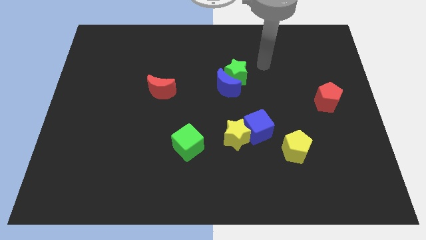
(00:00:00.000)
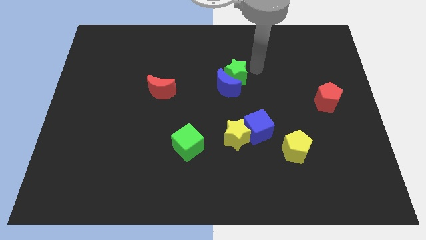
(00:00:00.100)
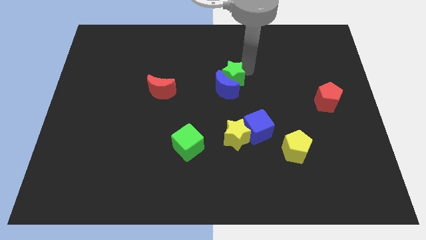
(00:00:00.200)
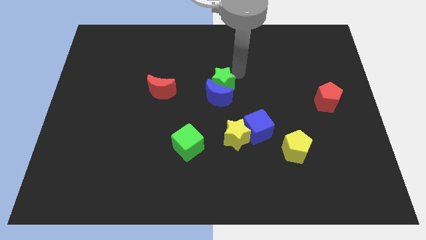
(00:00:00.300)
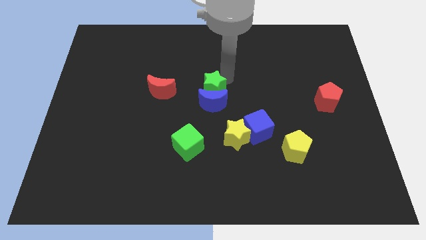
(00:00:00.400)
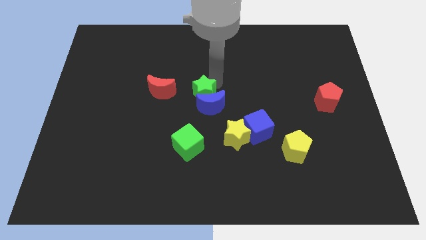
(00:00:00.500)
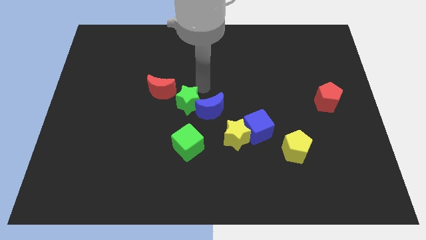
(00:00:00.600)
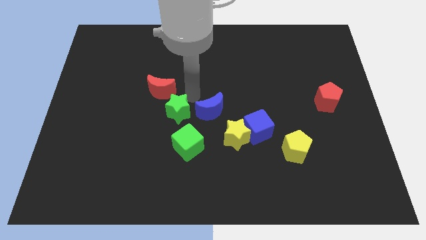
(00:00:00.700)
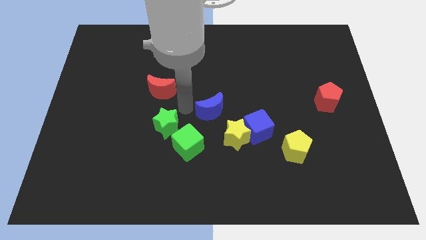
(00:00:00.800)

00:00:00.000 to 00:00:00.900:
move the blue moon away from the green star

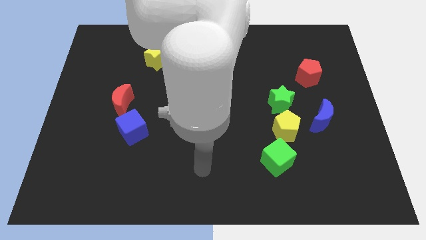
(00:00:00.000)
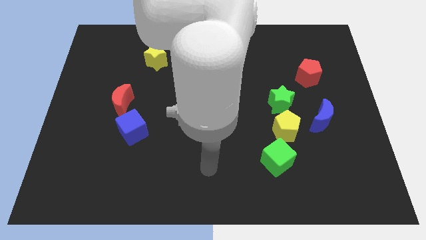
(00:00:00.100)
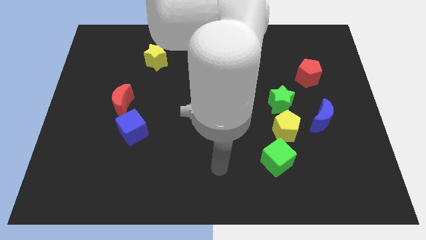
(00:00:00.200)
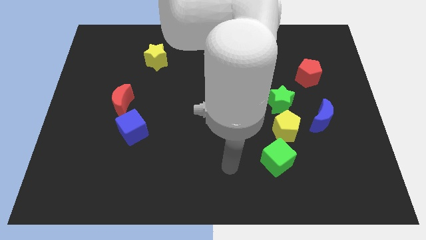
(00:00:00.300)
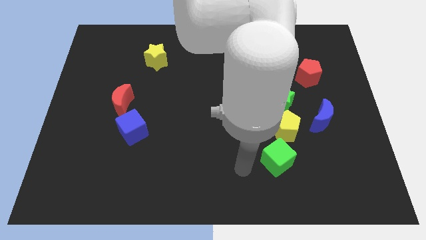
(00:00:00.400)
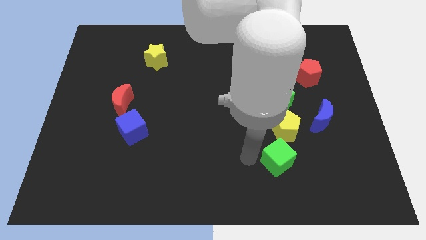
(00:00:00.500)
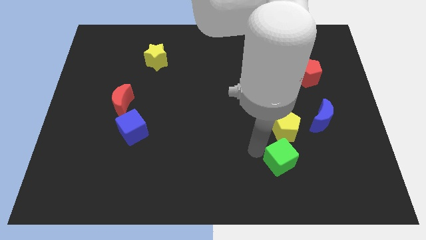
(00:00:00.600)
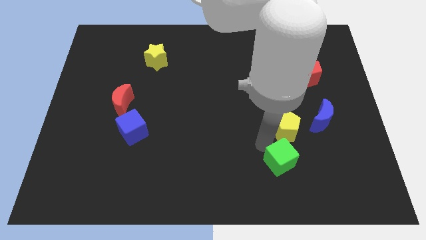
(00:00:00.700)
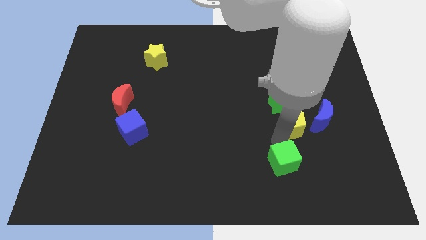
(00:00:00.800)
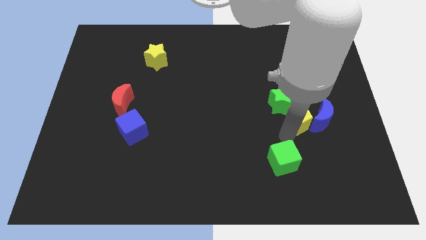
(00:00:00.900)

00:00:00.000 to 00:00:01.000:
pull the green cube apart from the yellow pentagon

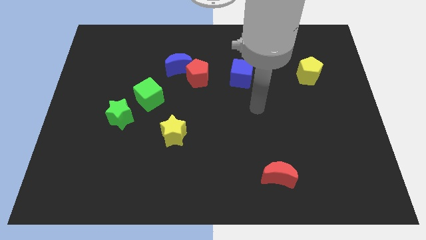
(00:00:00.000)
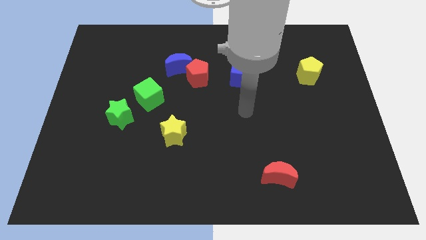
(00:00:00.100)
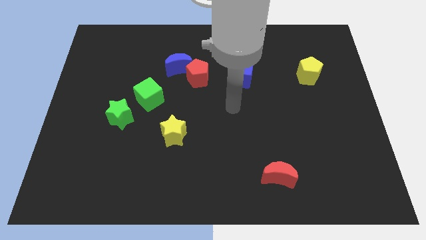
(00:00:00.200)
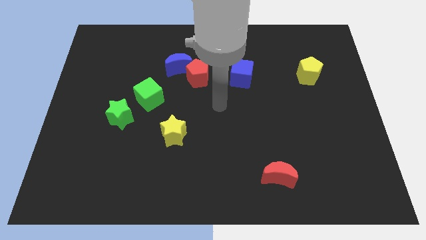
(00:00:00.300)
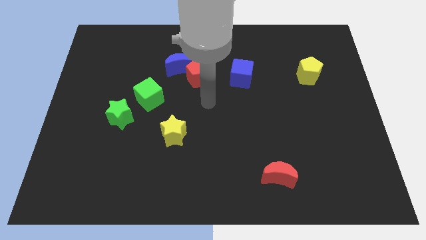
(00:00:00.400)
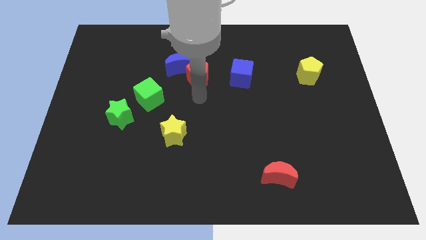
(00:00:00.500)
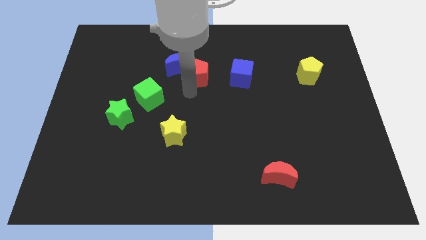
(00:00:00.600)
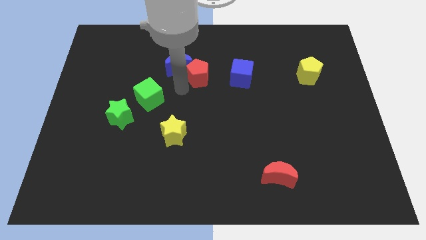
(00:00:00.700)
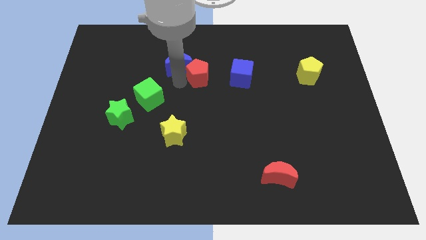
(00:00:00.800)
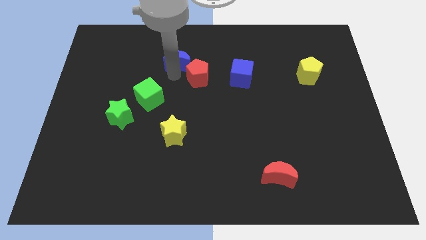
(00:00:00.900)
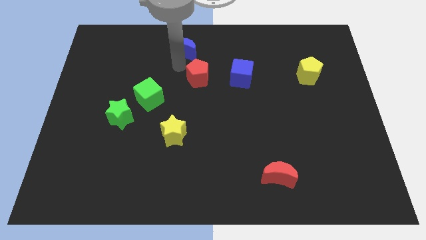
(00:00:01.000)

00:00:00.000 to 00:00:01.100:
move the red pentagon away from the blue moon

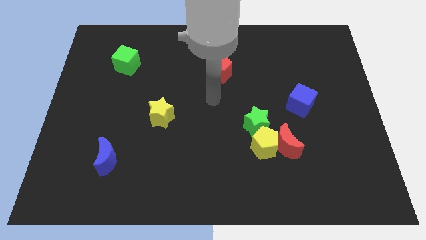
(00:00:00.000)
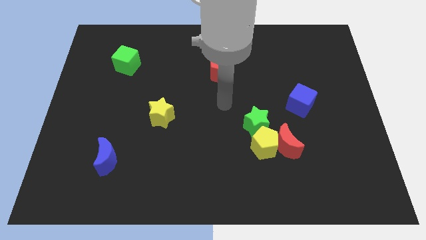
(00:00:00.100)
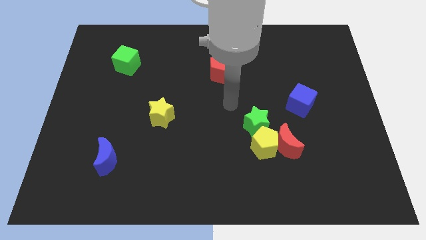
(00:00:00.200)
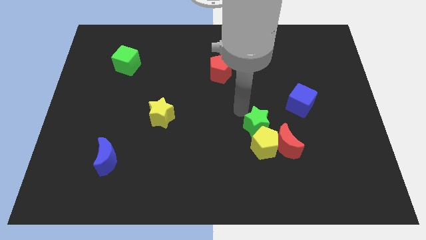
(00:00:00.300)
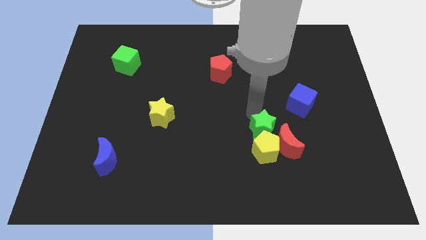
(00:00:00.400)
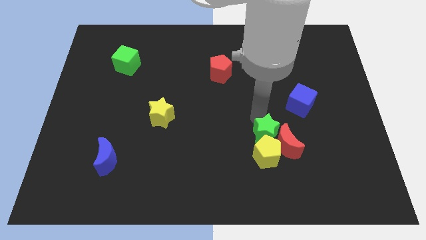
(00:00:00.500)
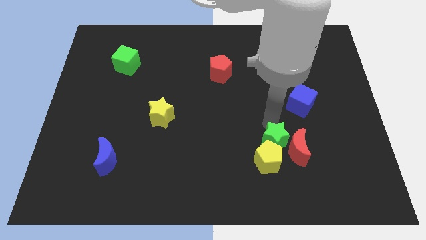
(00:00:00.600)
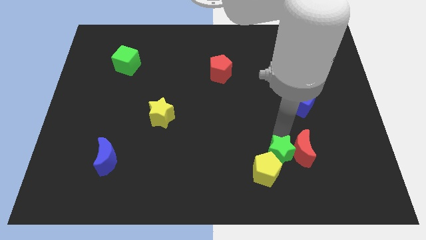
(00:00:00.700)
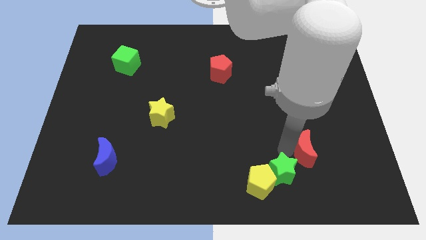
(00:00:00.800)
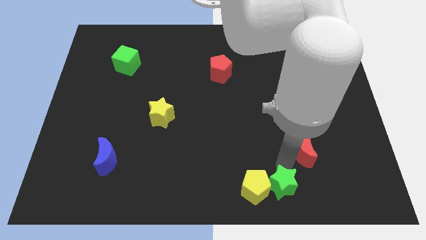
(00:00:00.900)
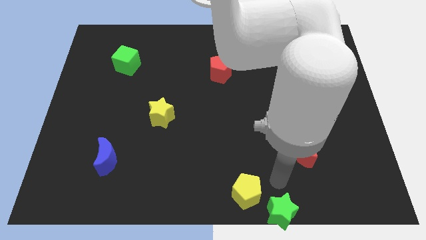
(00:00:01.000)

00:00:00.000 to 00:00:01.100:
pull the yellow pentagon apart from the red moon and green star

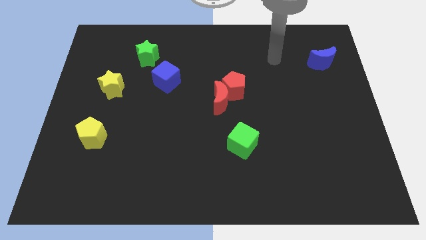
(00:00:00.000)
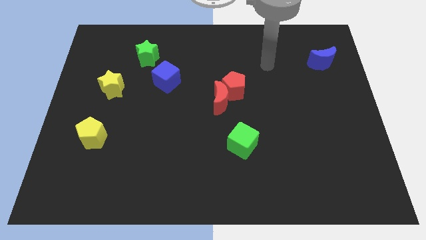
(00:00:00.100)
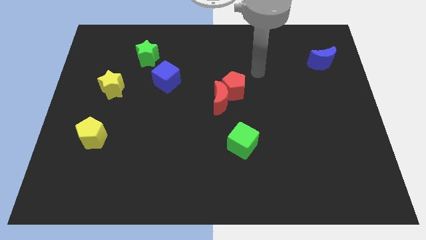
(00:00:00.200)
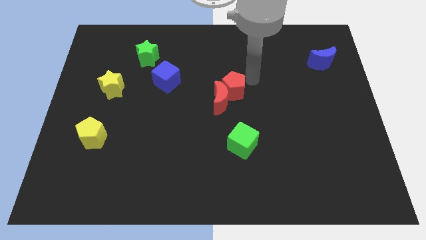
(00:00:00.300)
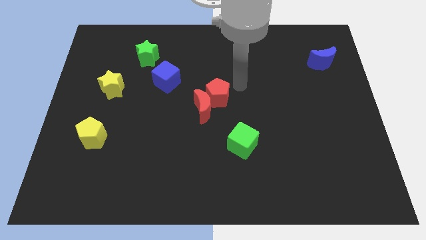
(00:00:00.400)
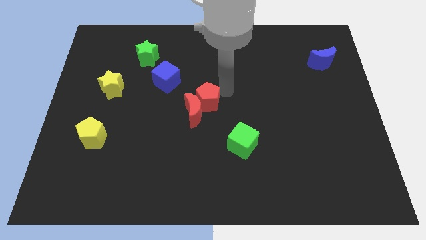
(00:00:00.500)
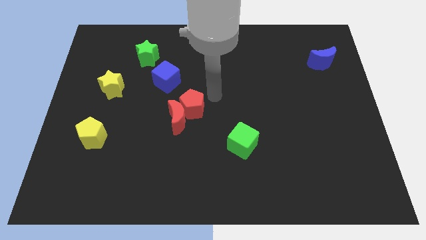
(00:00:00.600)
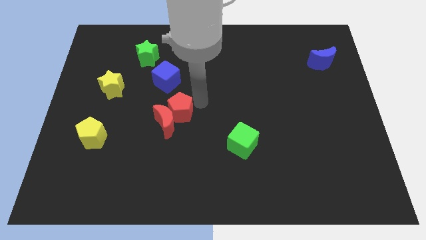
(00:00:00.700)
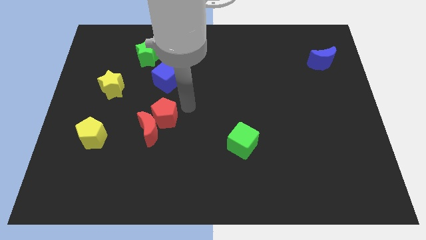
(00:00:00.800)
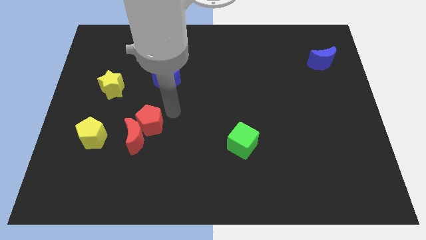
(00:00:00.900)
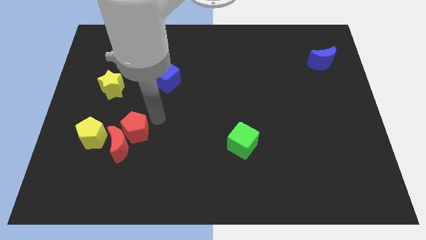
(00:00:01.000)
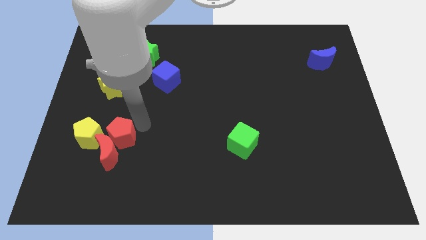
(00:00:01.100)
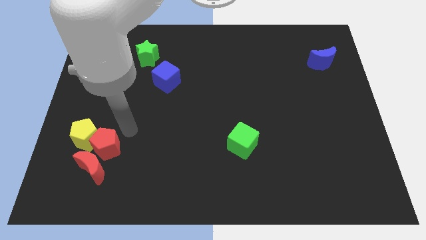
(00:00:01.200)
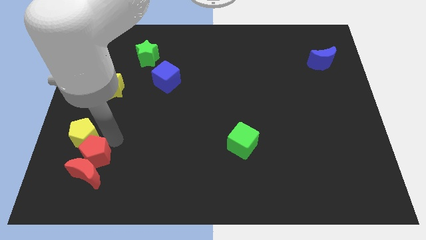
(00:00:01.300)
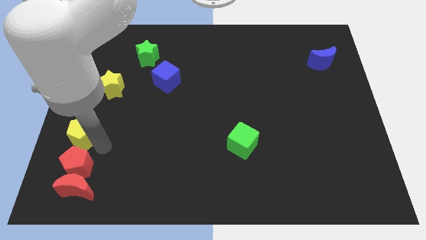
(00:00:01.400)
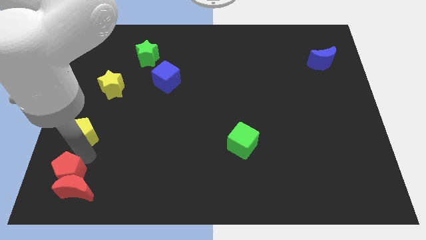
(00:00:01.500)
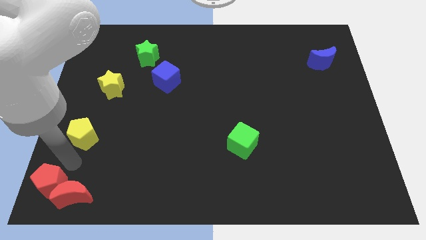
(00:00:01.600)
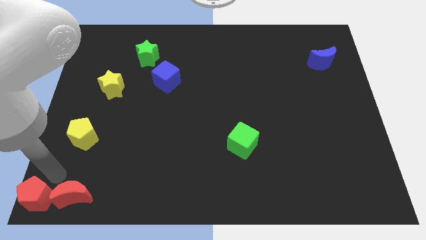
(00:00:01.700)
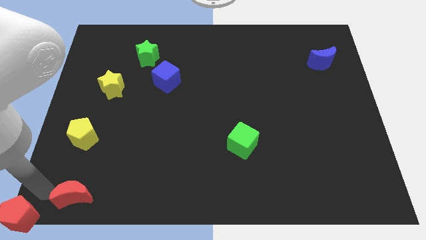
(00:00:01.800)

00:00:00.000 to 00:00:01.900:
pull the red moon apart from the red pentagon

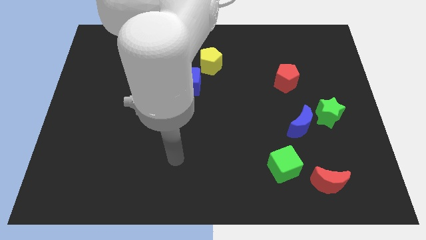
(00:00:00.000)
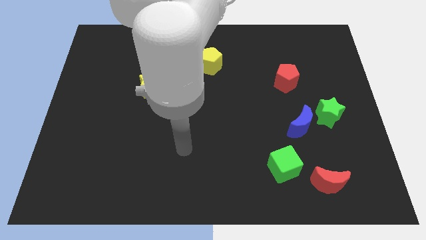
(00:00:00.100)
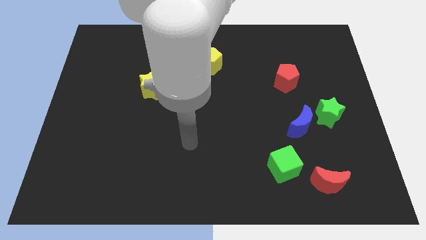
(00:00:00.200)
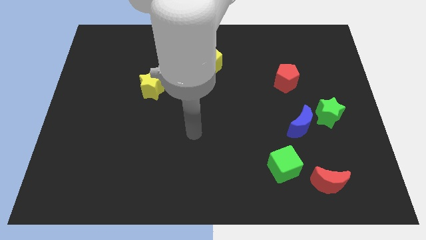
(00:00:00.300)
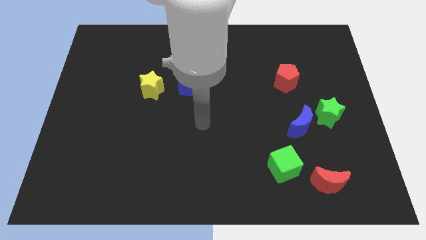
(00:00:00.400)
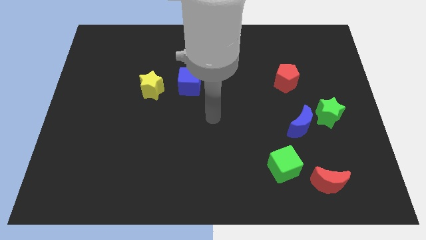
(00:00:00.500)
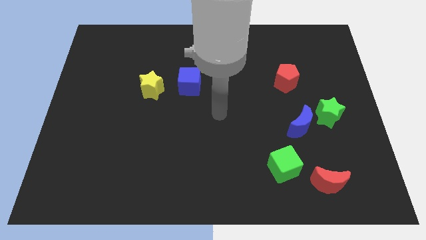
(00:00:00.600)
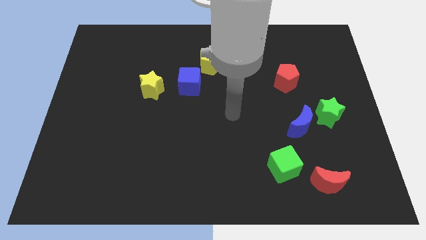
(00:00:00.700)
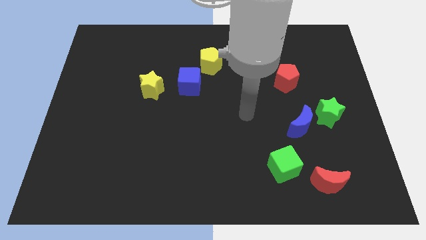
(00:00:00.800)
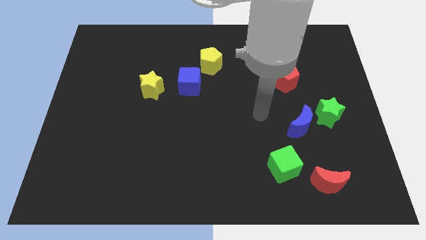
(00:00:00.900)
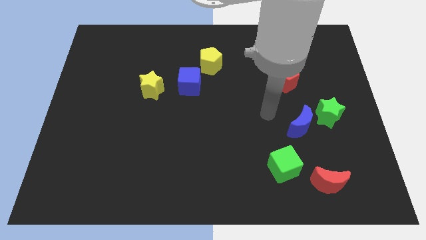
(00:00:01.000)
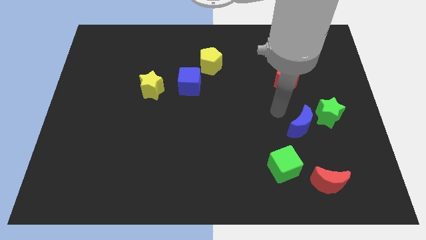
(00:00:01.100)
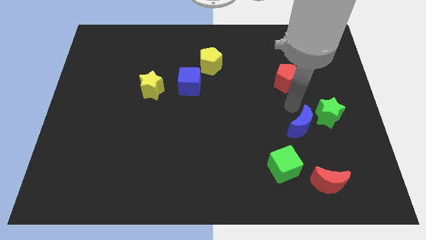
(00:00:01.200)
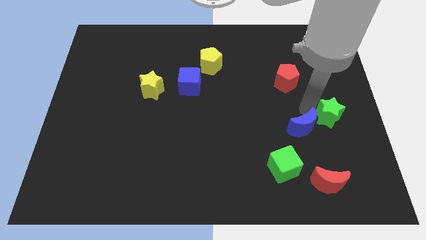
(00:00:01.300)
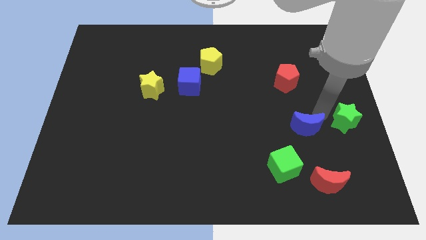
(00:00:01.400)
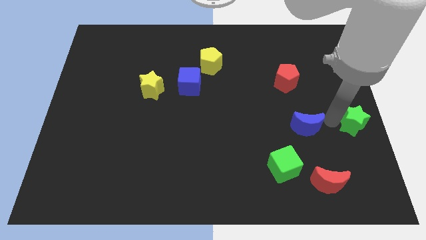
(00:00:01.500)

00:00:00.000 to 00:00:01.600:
pull the blue moon apart from the green star

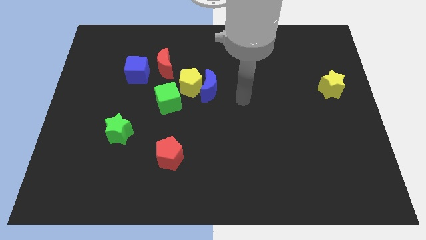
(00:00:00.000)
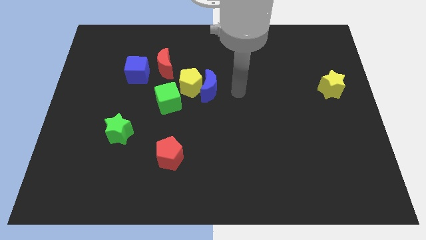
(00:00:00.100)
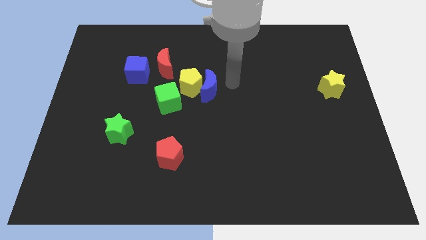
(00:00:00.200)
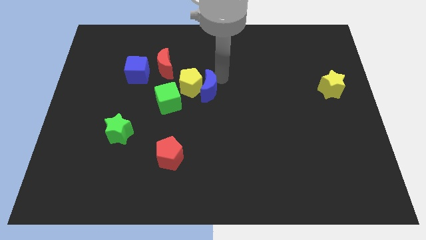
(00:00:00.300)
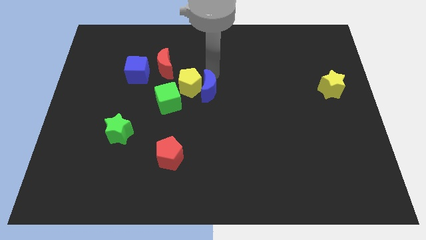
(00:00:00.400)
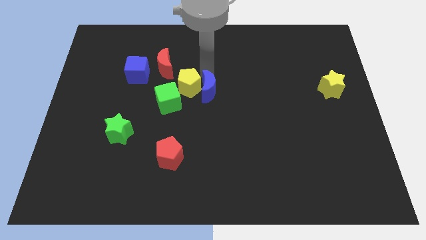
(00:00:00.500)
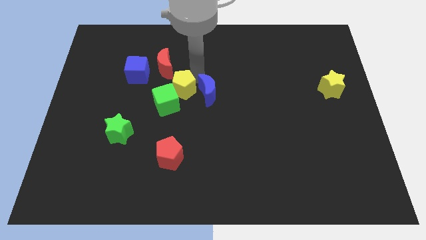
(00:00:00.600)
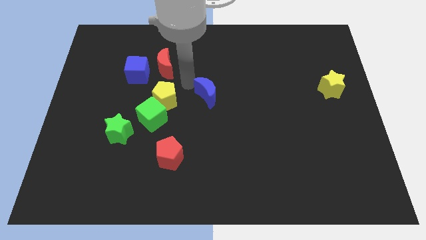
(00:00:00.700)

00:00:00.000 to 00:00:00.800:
move the blue moon away from the yellow pentagon

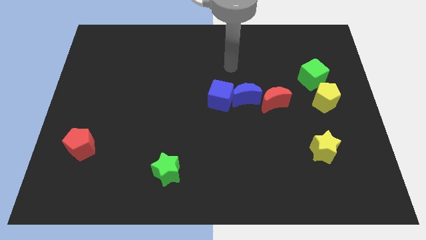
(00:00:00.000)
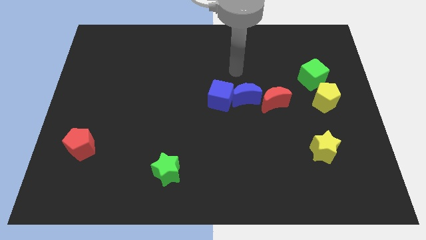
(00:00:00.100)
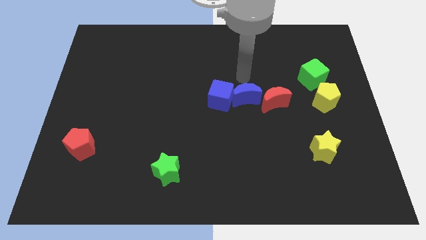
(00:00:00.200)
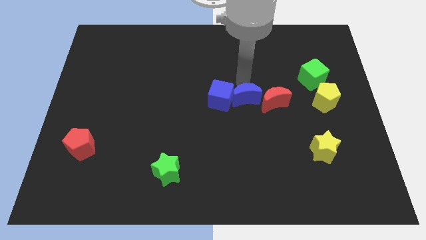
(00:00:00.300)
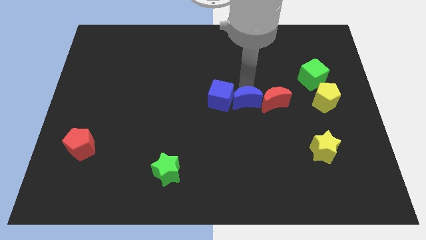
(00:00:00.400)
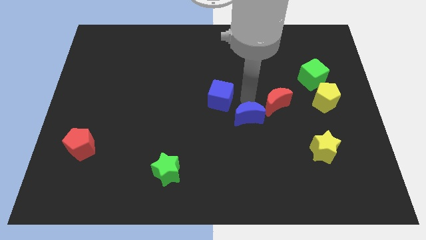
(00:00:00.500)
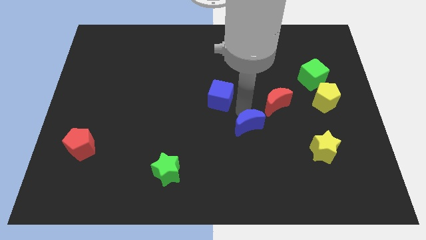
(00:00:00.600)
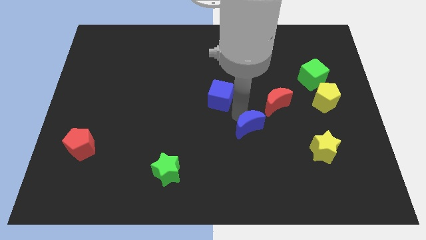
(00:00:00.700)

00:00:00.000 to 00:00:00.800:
move the blue cube away from the blue moon
